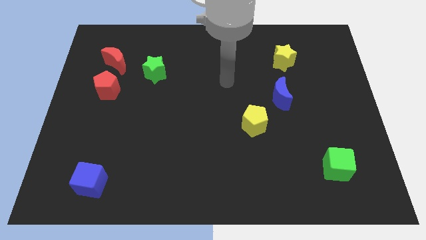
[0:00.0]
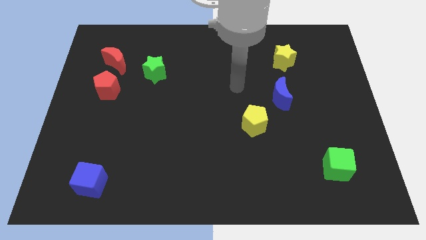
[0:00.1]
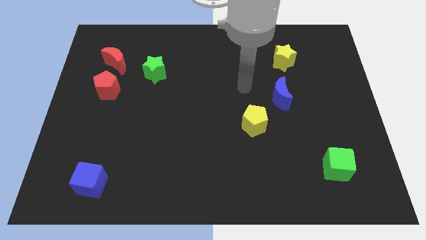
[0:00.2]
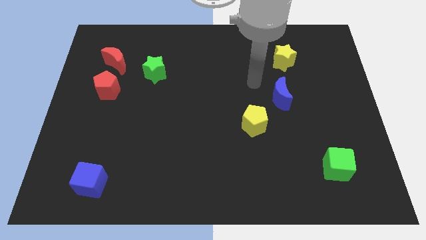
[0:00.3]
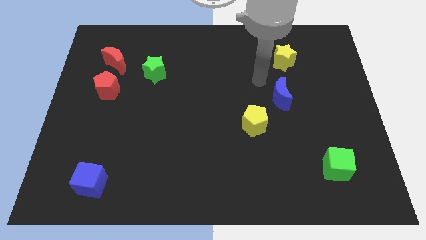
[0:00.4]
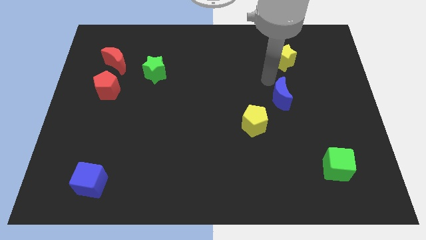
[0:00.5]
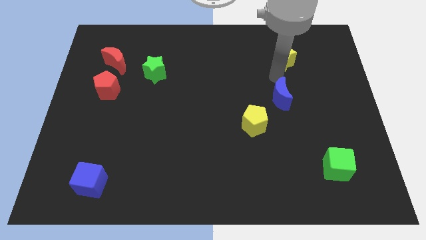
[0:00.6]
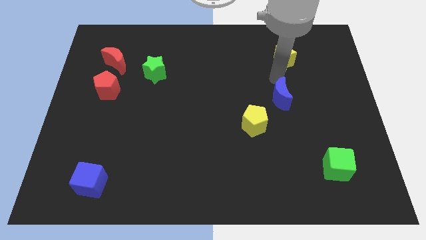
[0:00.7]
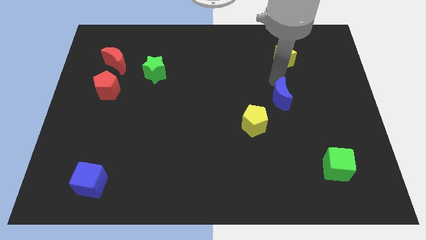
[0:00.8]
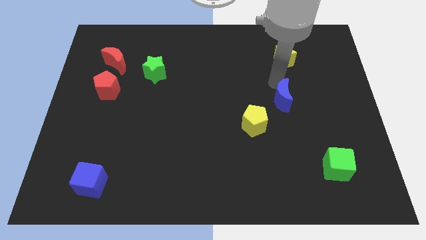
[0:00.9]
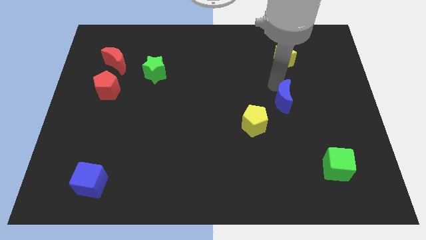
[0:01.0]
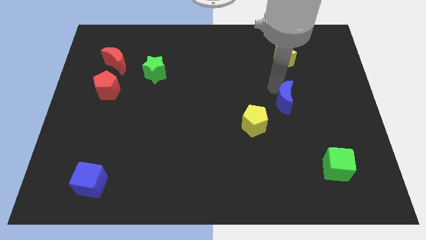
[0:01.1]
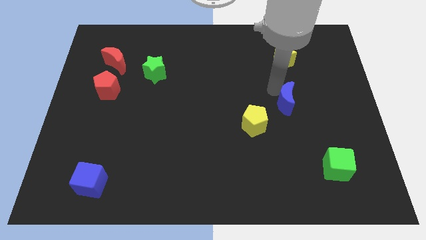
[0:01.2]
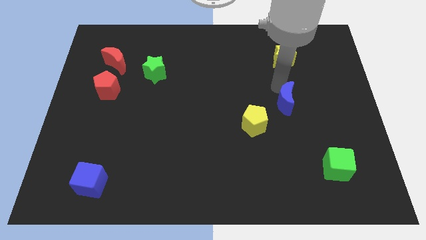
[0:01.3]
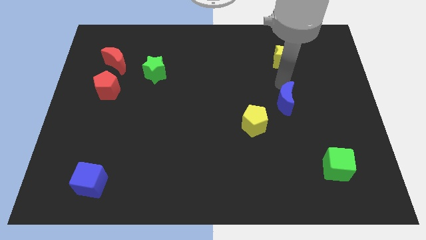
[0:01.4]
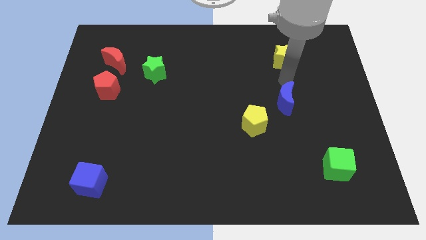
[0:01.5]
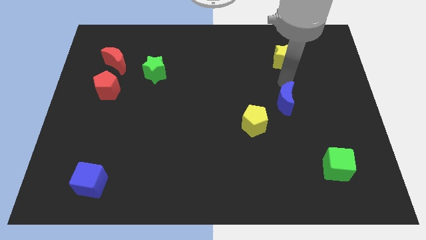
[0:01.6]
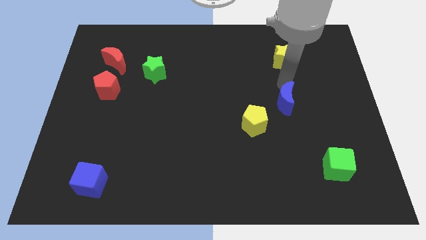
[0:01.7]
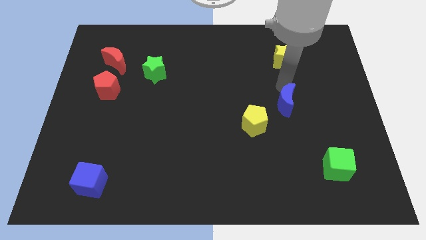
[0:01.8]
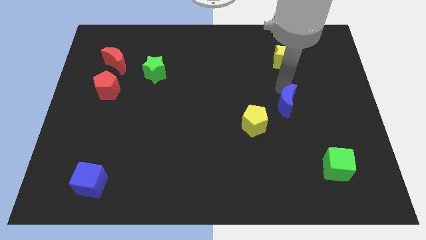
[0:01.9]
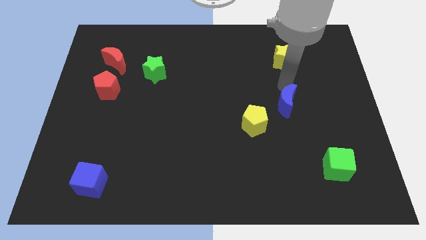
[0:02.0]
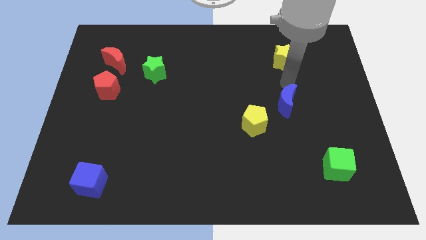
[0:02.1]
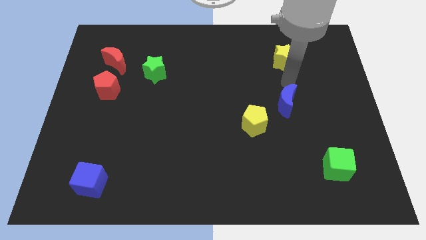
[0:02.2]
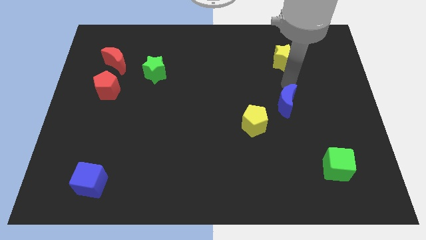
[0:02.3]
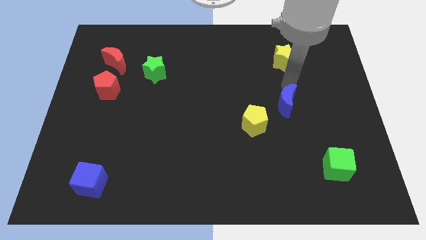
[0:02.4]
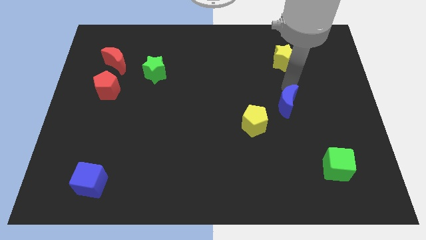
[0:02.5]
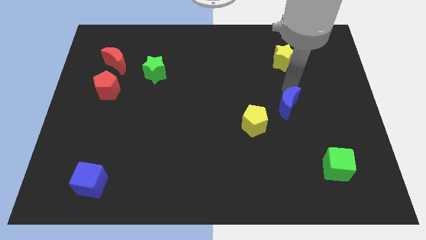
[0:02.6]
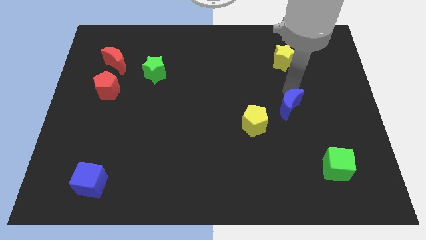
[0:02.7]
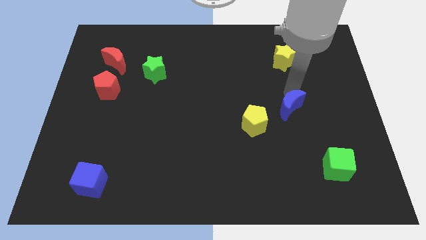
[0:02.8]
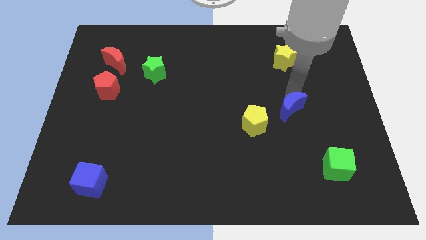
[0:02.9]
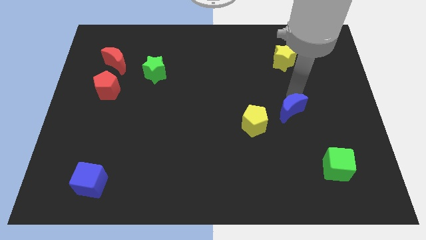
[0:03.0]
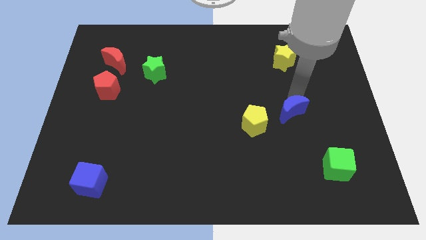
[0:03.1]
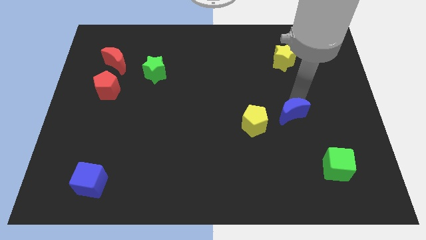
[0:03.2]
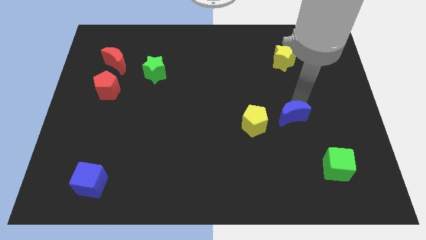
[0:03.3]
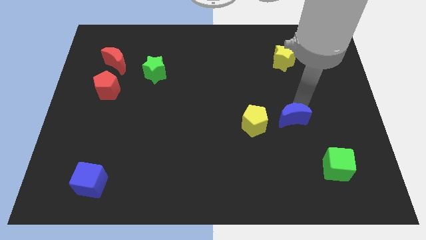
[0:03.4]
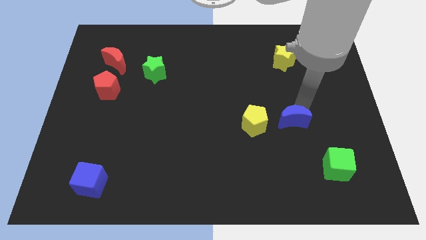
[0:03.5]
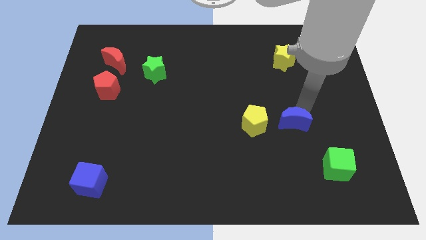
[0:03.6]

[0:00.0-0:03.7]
slightly slide the blue moon downwards

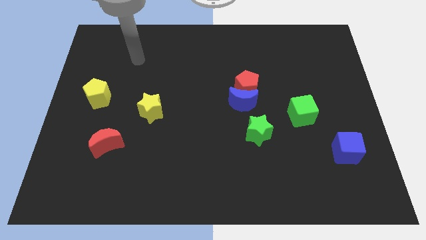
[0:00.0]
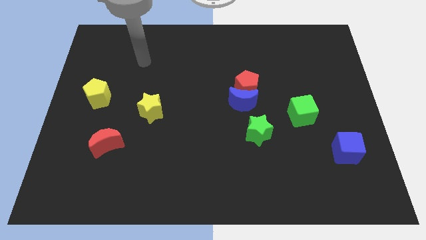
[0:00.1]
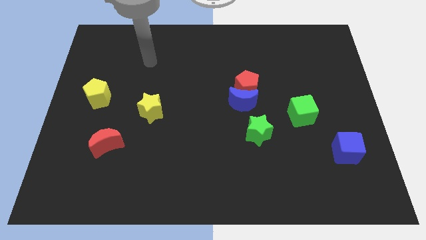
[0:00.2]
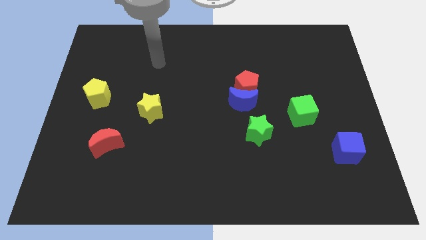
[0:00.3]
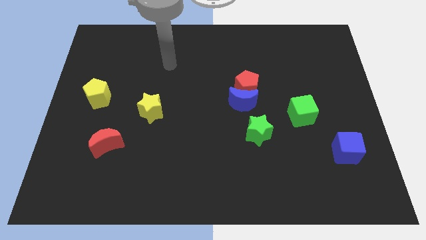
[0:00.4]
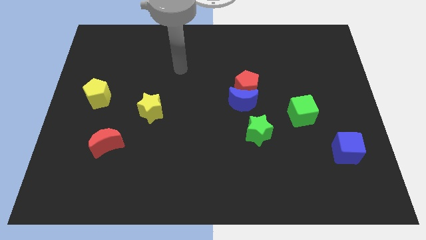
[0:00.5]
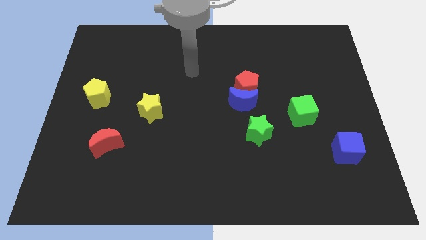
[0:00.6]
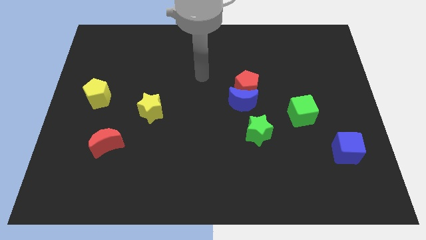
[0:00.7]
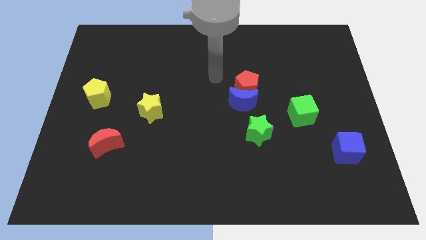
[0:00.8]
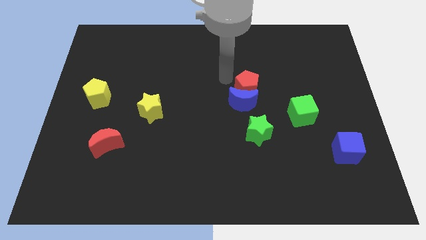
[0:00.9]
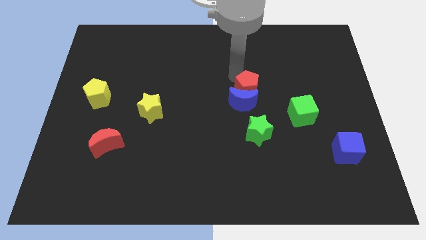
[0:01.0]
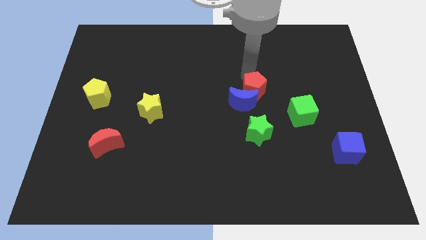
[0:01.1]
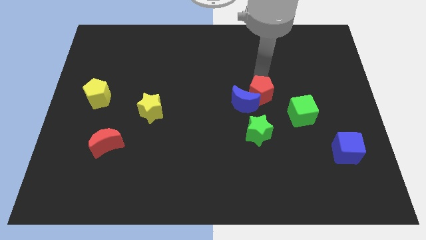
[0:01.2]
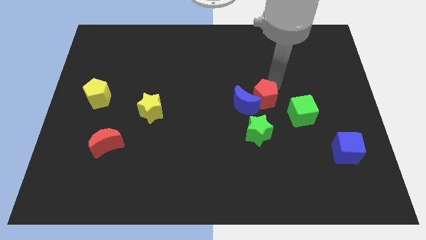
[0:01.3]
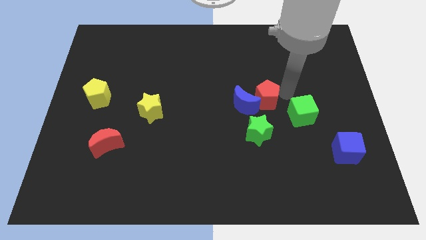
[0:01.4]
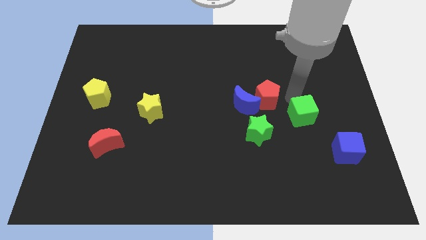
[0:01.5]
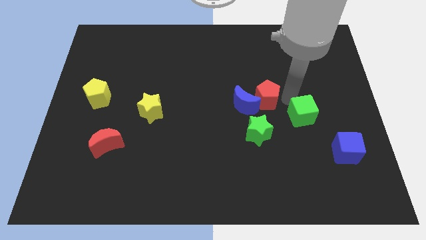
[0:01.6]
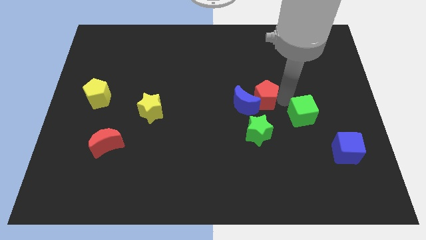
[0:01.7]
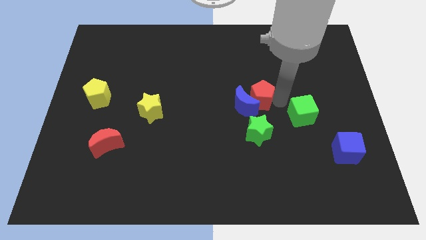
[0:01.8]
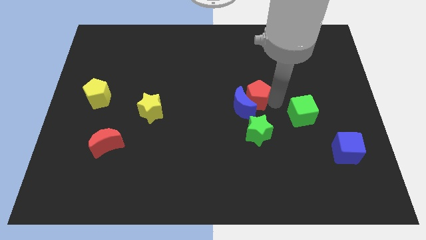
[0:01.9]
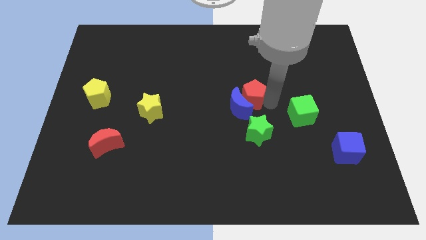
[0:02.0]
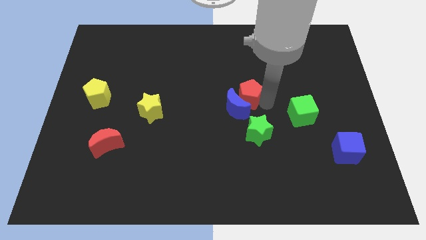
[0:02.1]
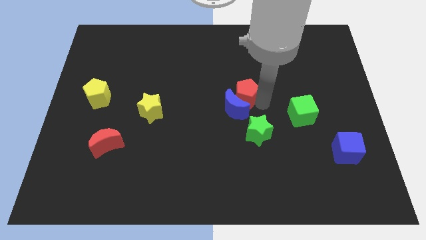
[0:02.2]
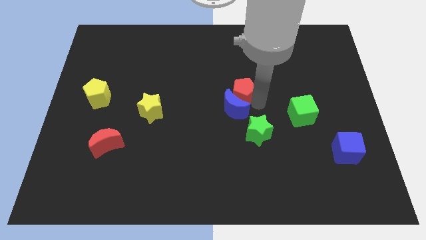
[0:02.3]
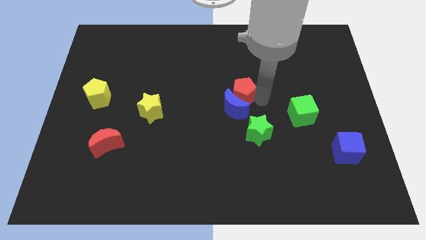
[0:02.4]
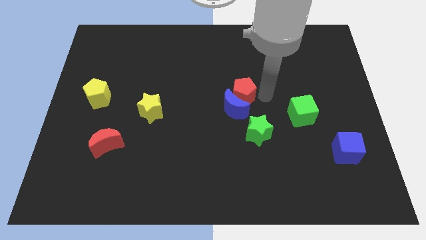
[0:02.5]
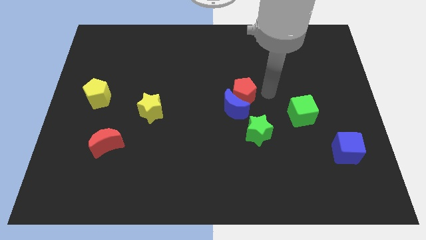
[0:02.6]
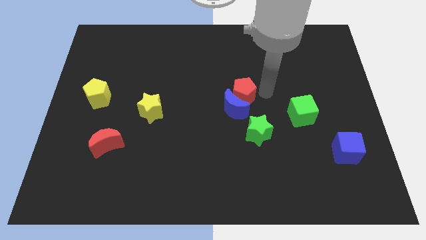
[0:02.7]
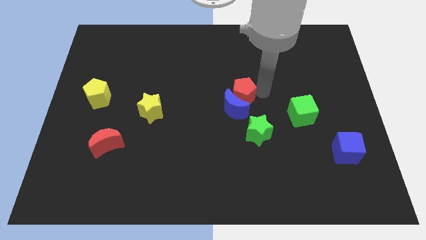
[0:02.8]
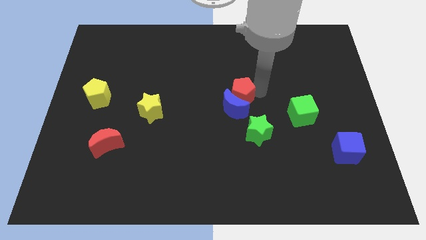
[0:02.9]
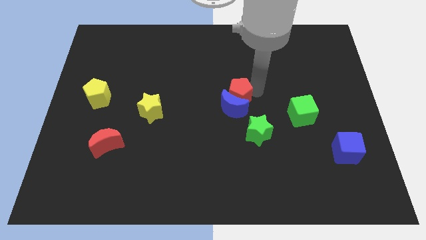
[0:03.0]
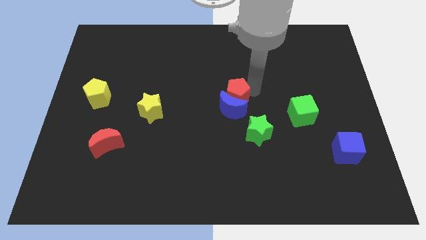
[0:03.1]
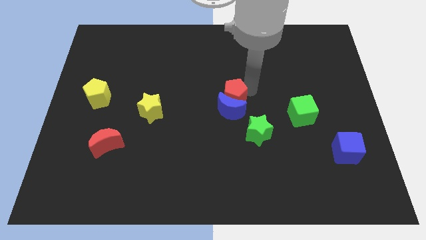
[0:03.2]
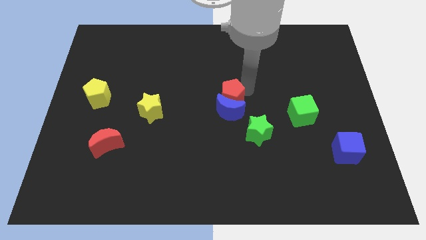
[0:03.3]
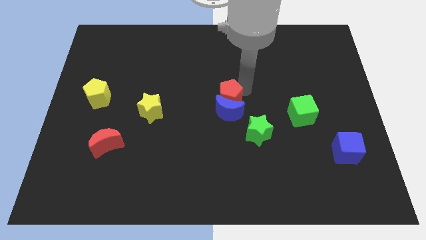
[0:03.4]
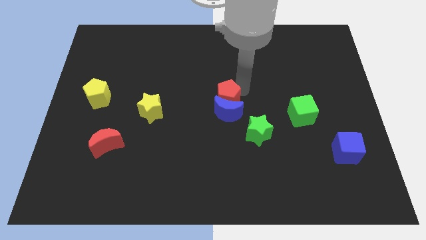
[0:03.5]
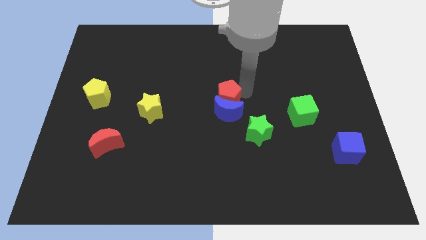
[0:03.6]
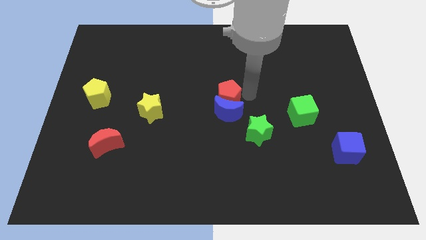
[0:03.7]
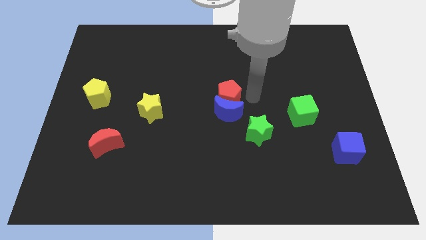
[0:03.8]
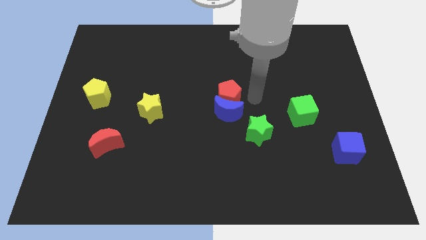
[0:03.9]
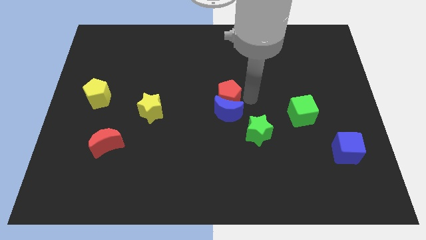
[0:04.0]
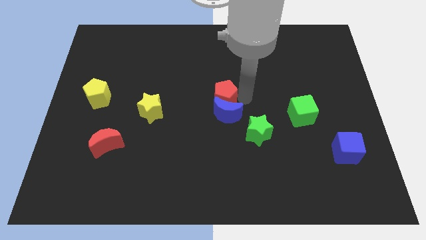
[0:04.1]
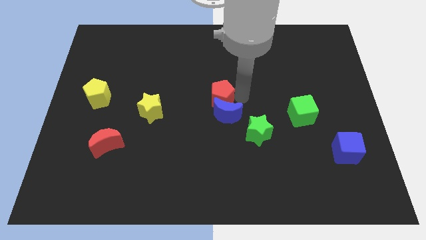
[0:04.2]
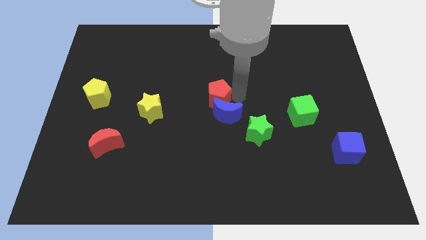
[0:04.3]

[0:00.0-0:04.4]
move the red pentagon slightly downwards and left diagonally
